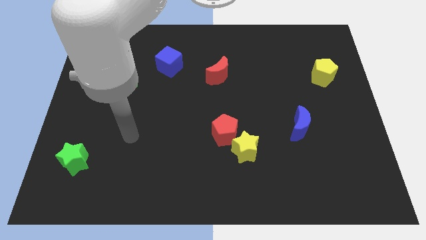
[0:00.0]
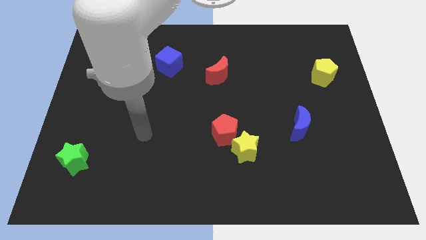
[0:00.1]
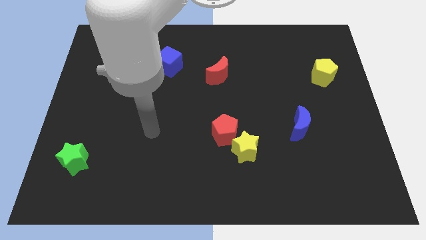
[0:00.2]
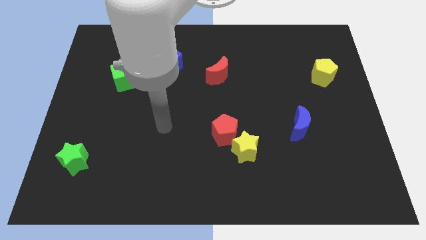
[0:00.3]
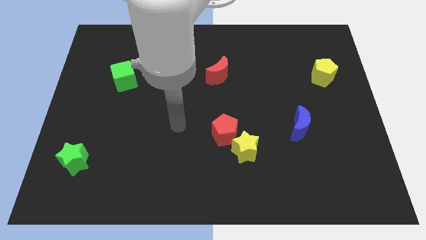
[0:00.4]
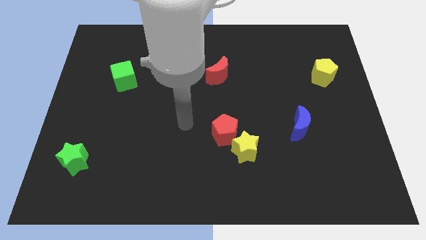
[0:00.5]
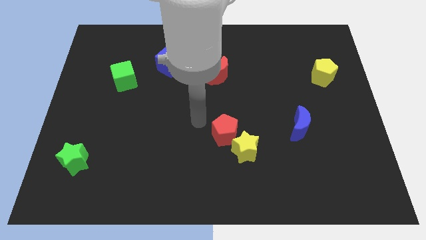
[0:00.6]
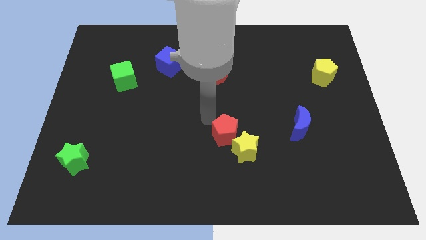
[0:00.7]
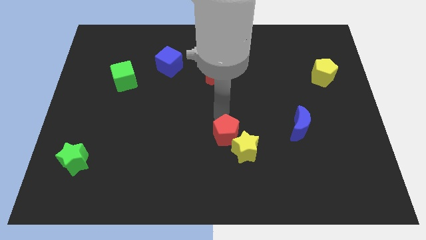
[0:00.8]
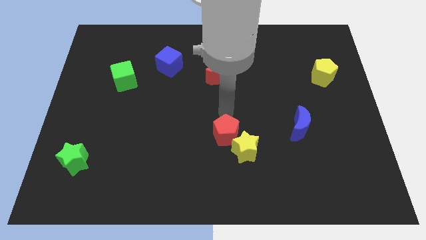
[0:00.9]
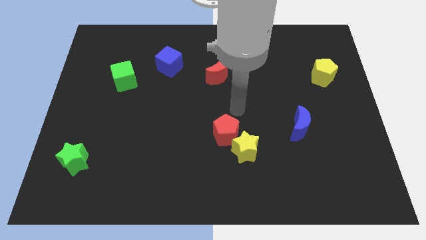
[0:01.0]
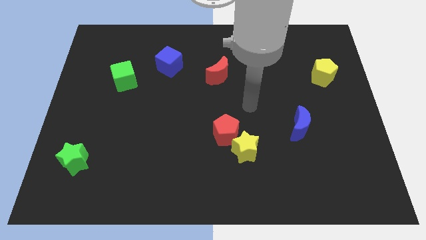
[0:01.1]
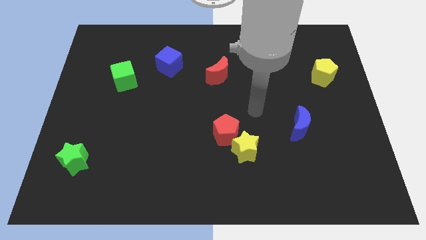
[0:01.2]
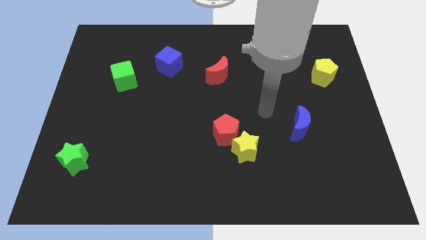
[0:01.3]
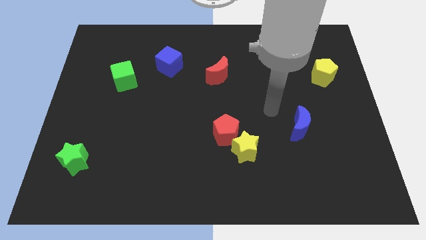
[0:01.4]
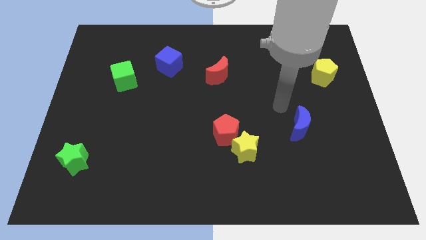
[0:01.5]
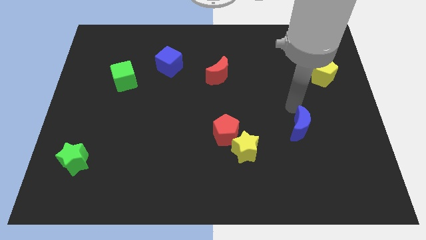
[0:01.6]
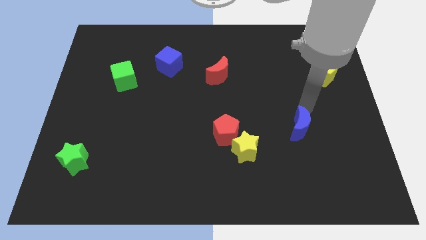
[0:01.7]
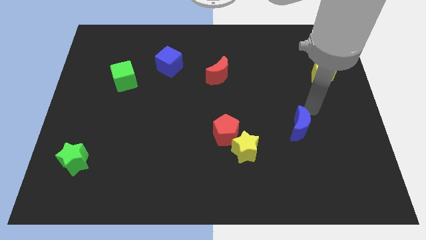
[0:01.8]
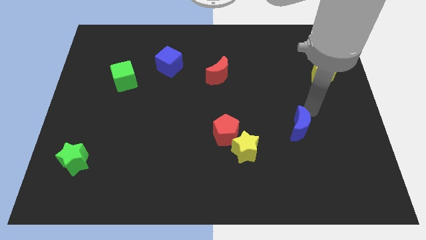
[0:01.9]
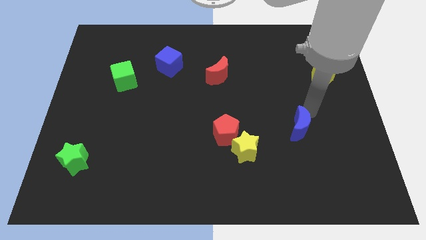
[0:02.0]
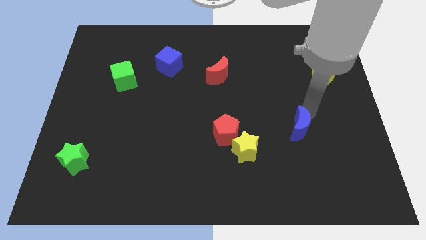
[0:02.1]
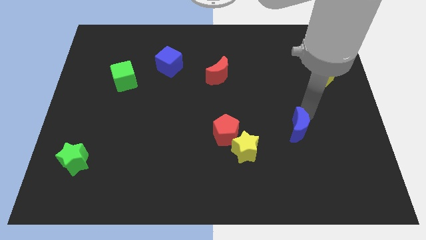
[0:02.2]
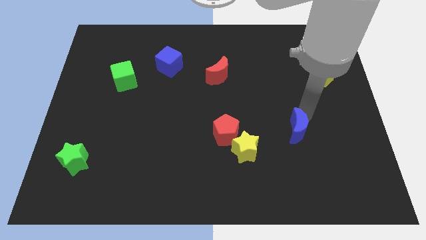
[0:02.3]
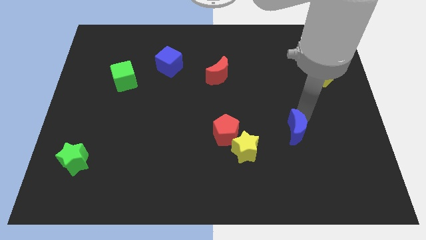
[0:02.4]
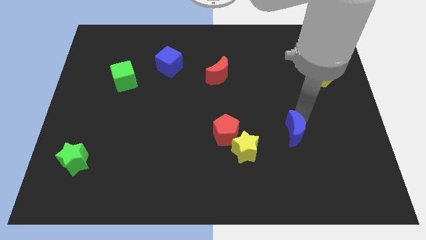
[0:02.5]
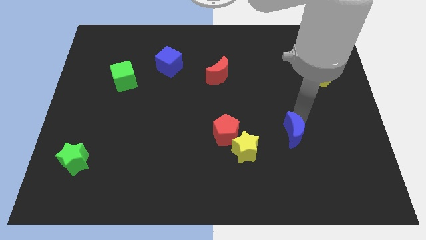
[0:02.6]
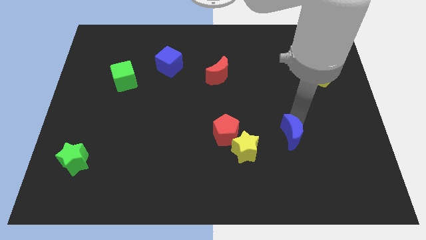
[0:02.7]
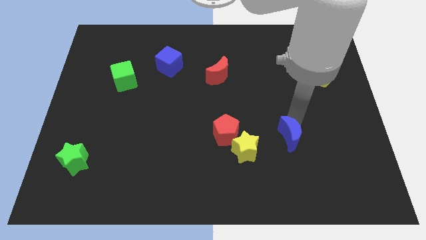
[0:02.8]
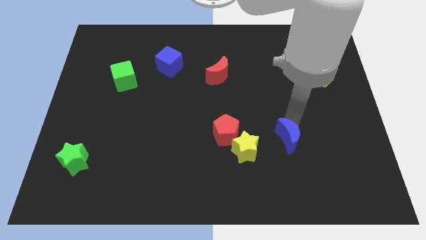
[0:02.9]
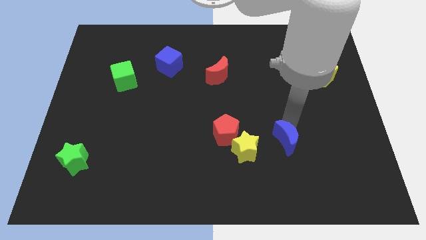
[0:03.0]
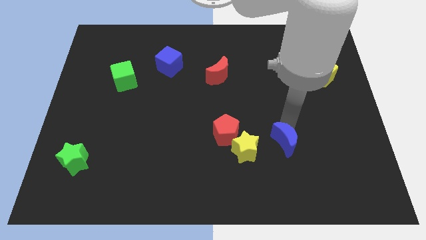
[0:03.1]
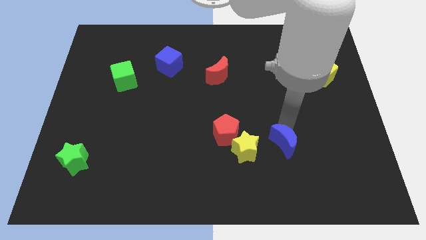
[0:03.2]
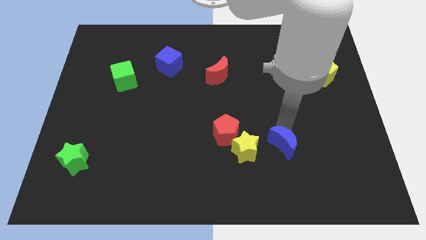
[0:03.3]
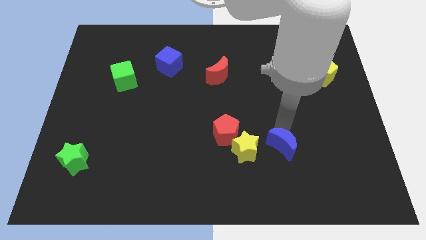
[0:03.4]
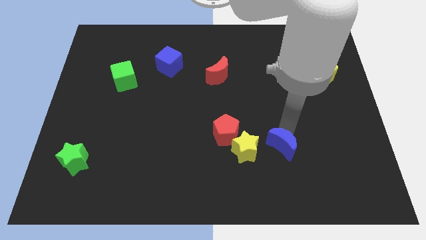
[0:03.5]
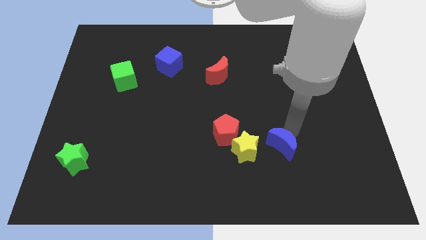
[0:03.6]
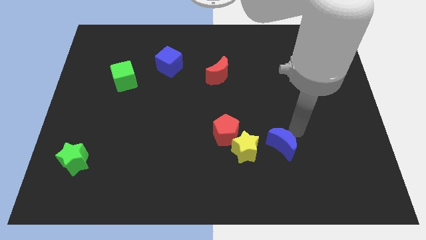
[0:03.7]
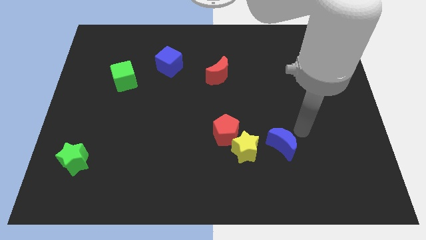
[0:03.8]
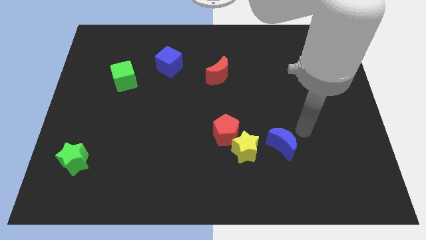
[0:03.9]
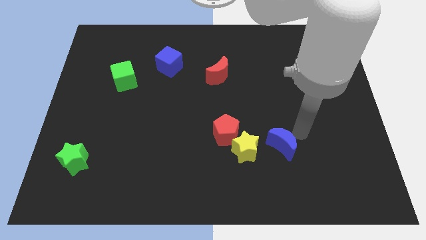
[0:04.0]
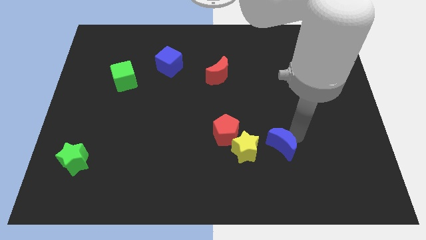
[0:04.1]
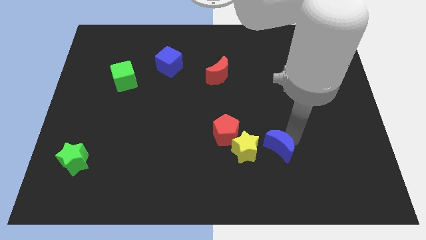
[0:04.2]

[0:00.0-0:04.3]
push the blue moon a bit down and to the left

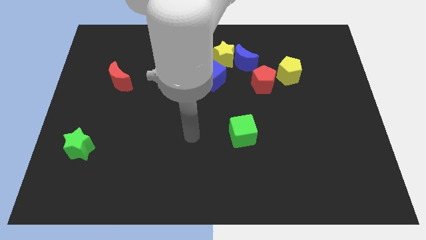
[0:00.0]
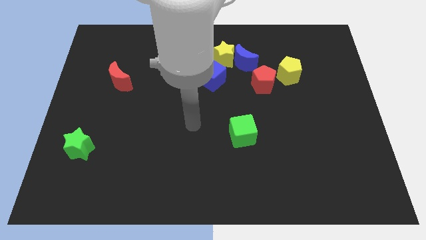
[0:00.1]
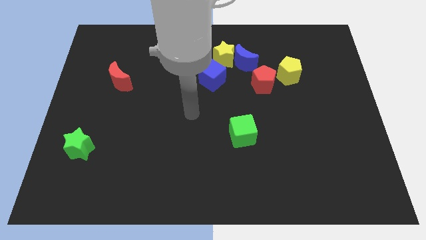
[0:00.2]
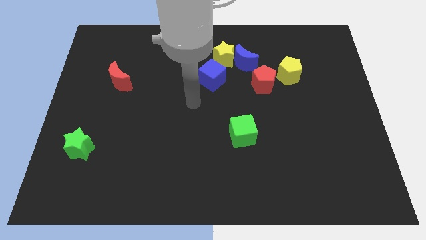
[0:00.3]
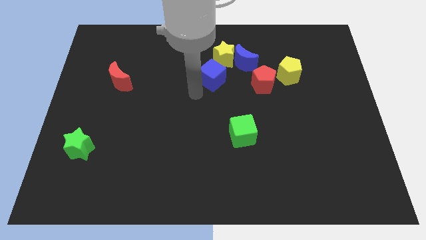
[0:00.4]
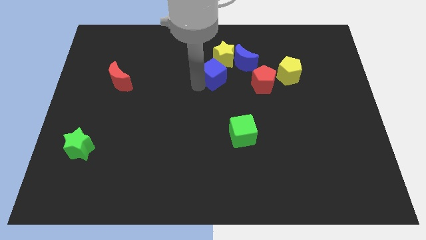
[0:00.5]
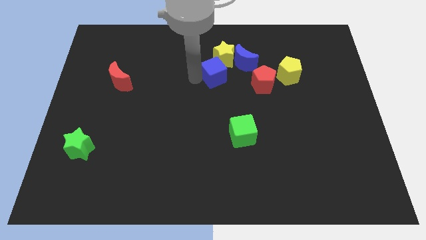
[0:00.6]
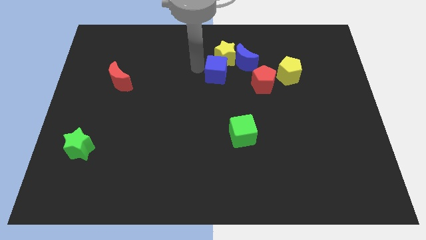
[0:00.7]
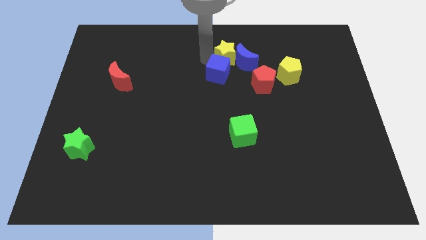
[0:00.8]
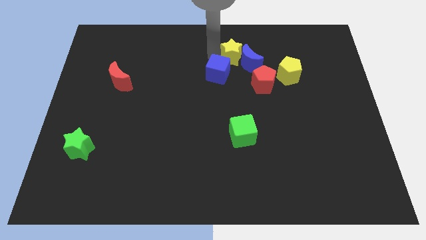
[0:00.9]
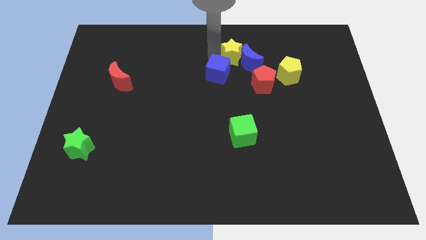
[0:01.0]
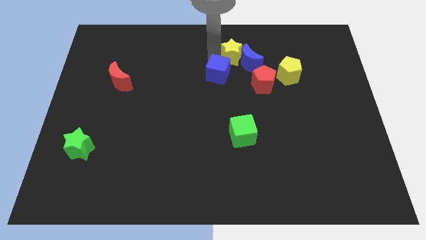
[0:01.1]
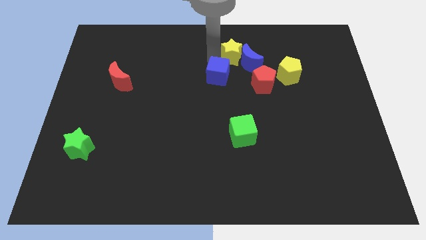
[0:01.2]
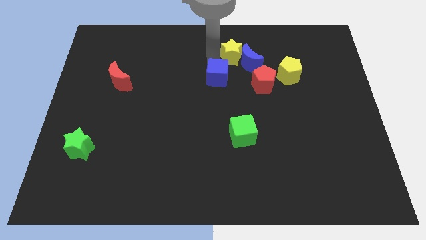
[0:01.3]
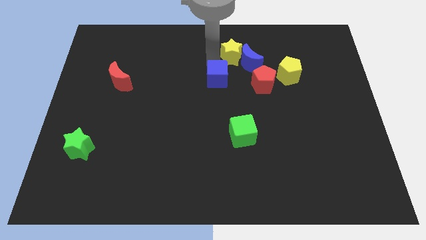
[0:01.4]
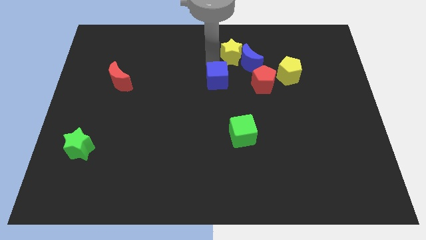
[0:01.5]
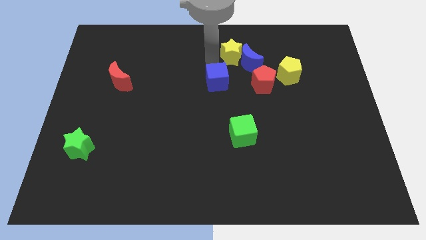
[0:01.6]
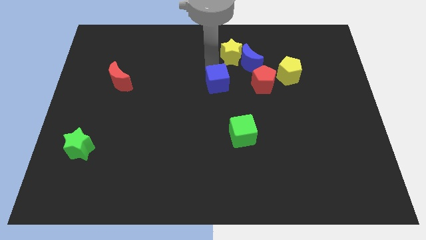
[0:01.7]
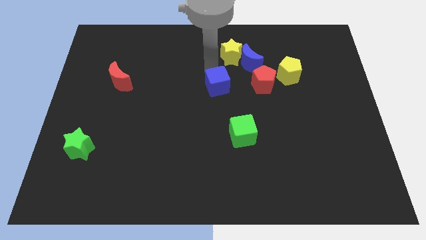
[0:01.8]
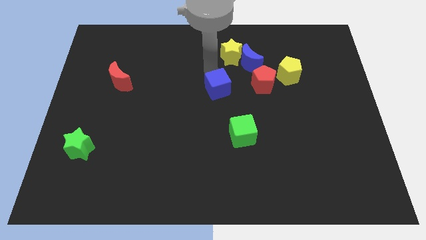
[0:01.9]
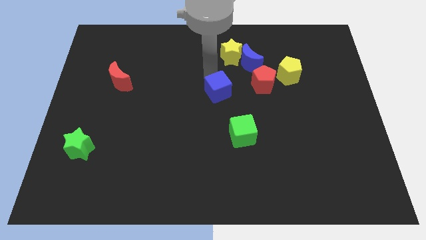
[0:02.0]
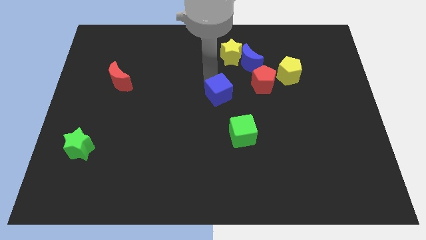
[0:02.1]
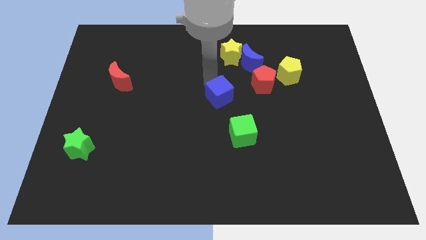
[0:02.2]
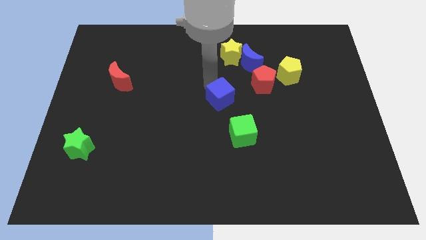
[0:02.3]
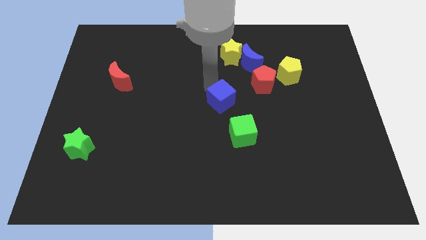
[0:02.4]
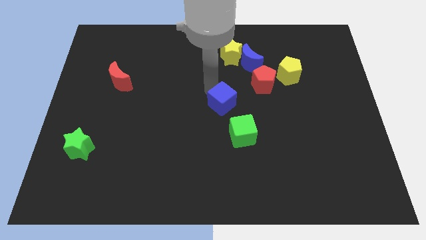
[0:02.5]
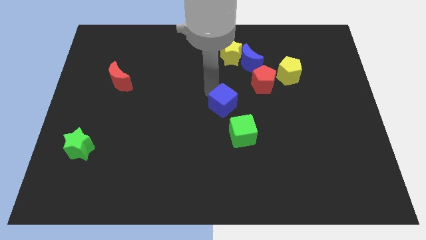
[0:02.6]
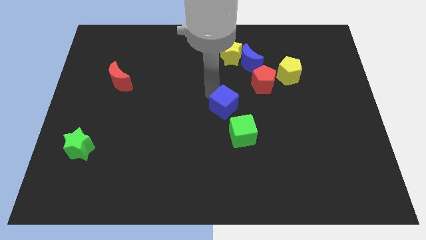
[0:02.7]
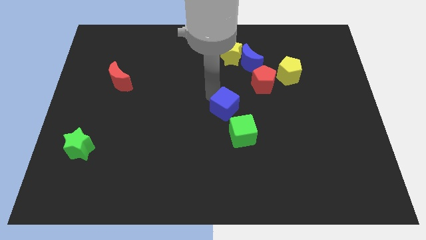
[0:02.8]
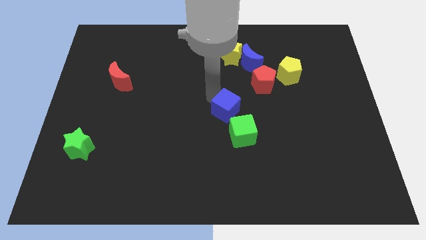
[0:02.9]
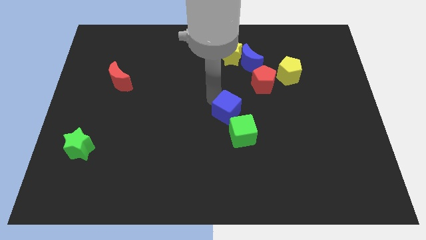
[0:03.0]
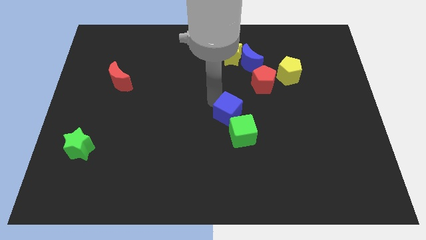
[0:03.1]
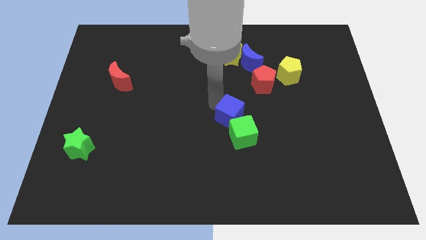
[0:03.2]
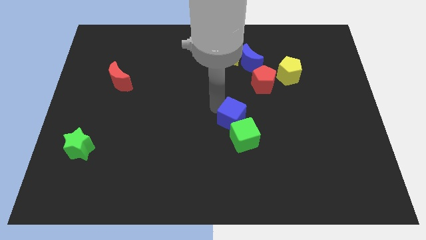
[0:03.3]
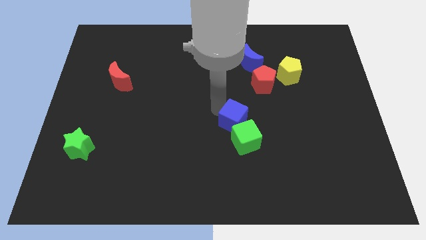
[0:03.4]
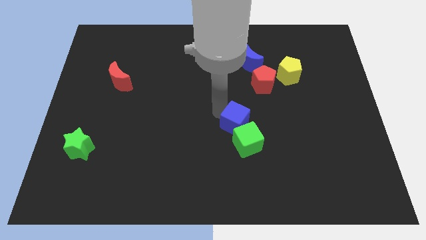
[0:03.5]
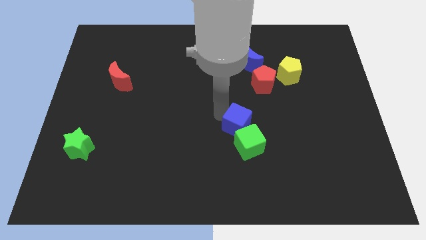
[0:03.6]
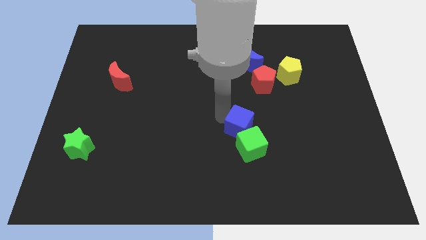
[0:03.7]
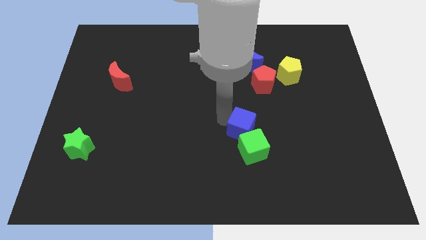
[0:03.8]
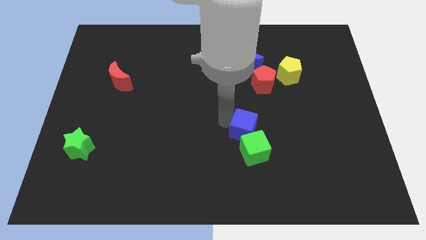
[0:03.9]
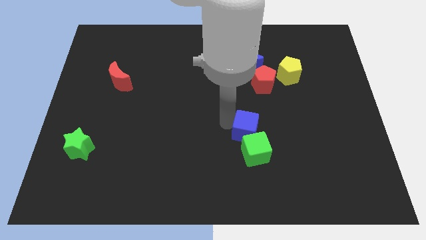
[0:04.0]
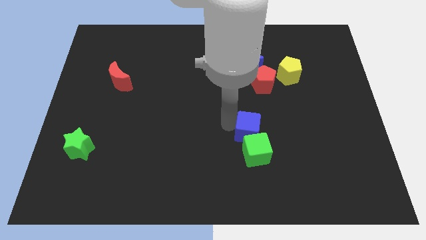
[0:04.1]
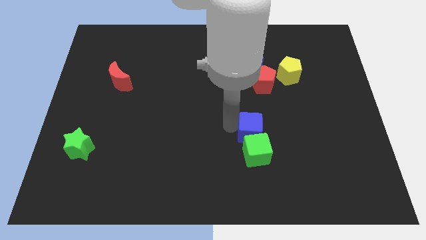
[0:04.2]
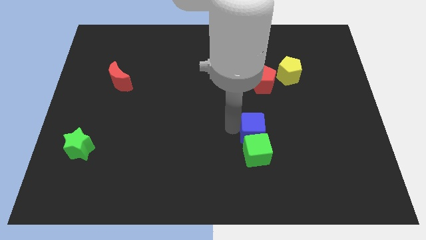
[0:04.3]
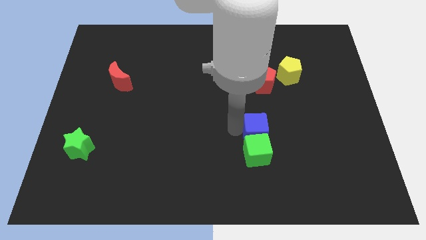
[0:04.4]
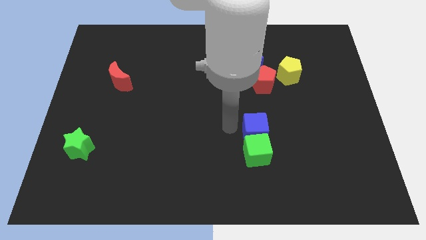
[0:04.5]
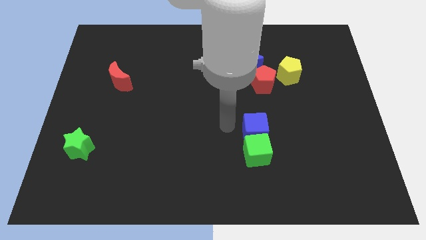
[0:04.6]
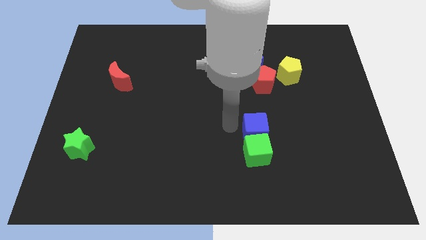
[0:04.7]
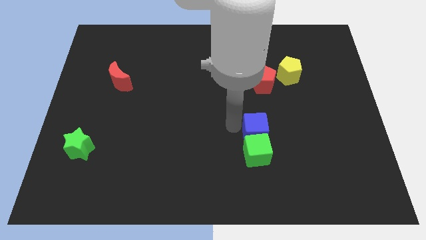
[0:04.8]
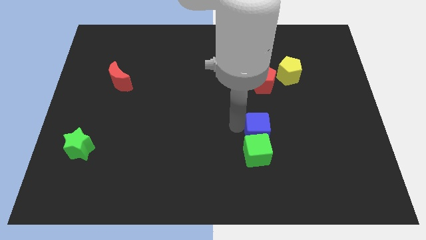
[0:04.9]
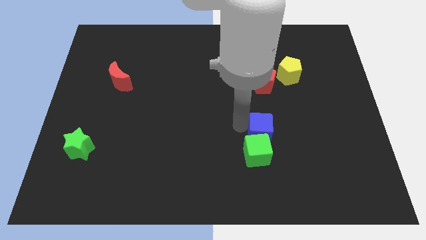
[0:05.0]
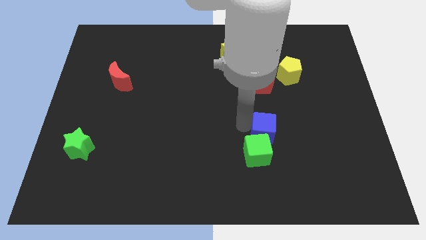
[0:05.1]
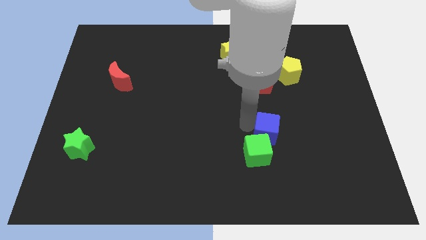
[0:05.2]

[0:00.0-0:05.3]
push the blue cube downwards and then right
